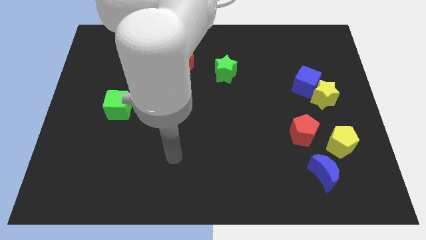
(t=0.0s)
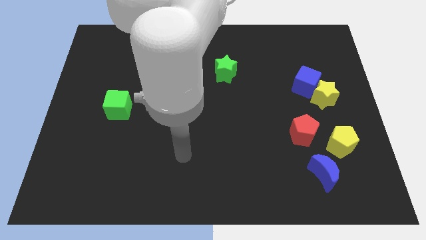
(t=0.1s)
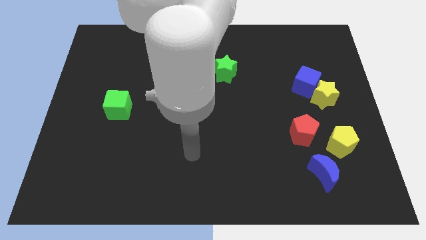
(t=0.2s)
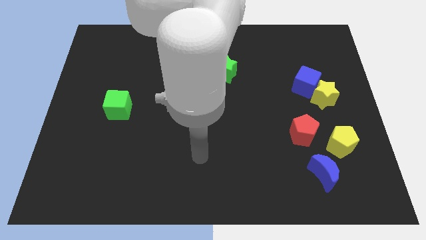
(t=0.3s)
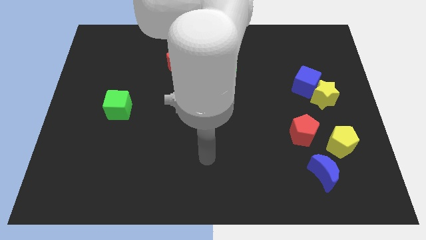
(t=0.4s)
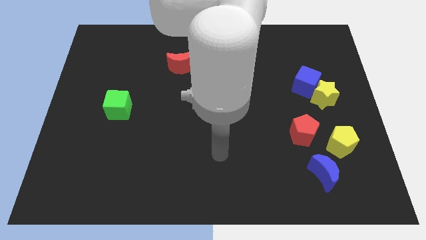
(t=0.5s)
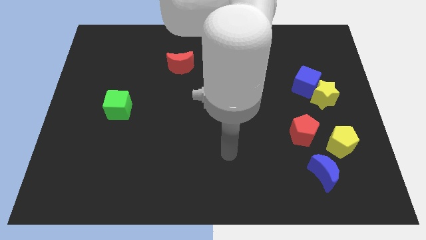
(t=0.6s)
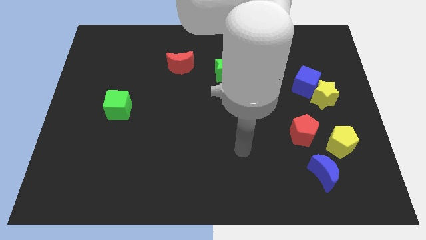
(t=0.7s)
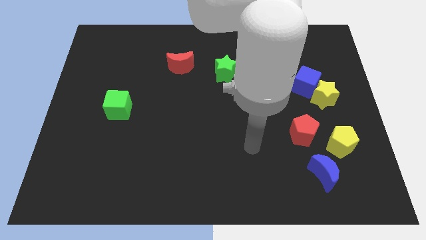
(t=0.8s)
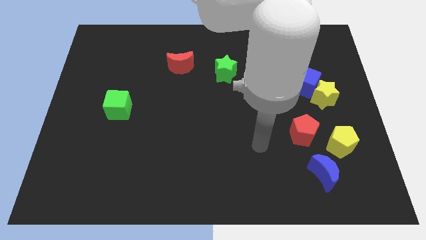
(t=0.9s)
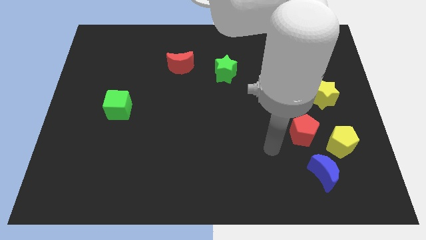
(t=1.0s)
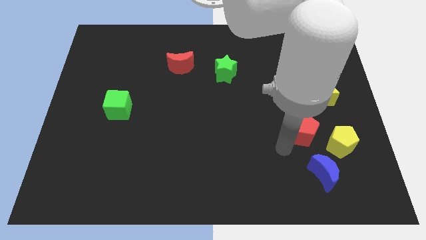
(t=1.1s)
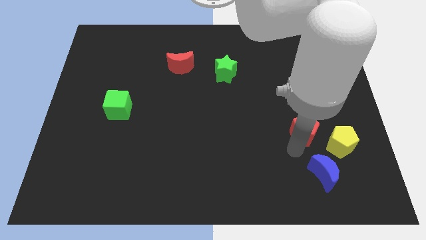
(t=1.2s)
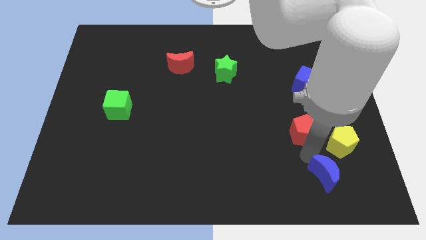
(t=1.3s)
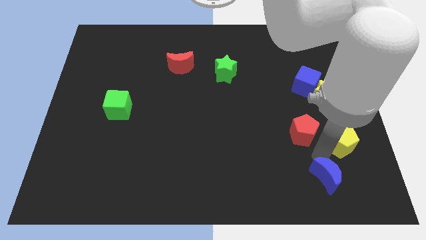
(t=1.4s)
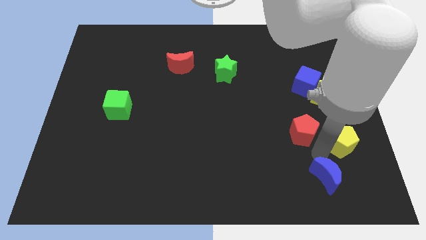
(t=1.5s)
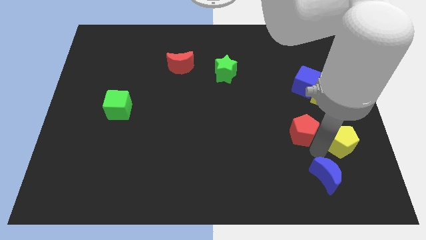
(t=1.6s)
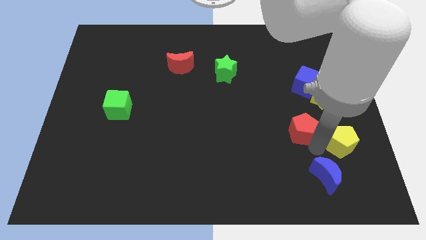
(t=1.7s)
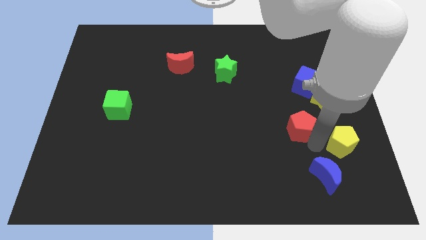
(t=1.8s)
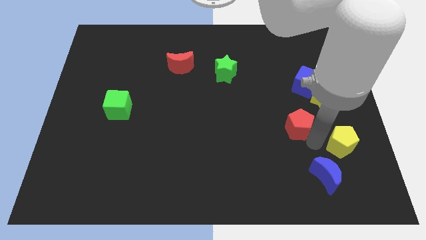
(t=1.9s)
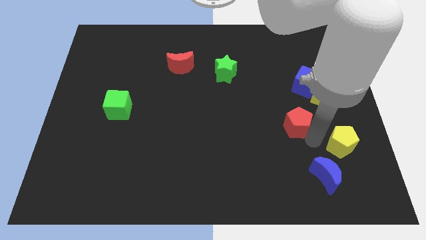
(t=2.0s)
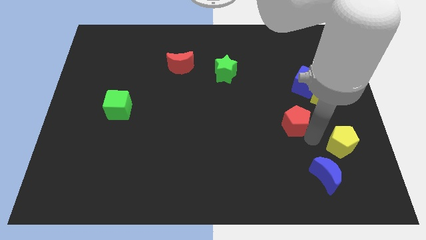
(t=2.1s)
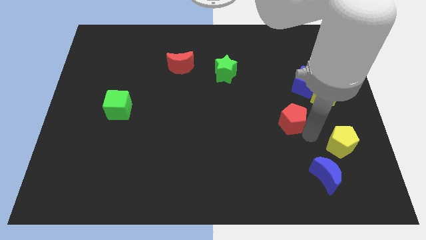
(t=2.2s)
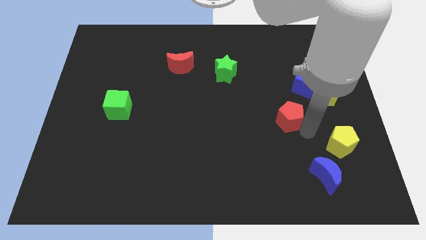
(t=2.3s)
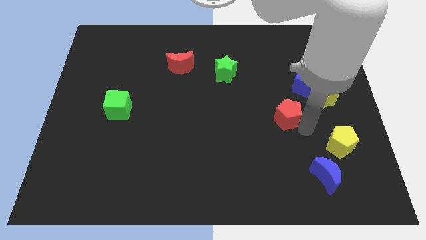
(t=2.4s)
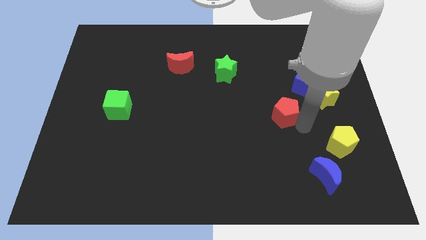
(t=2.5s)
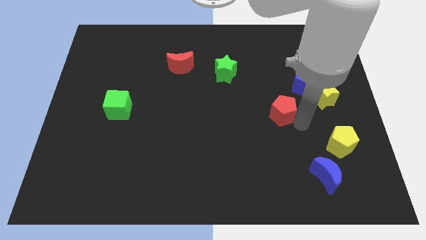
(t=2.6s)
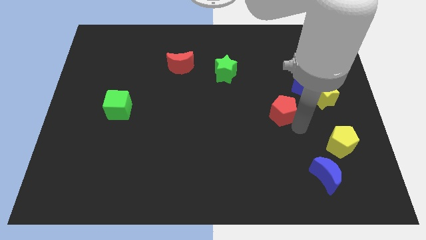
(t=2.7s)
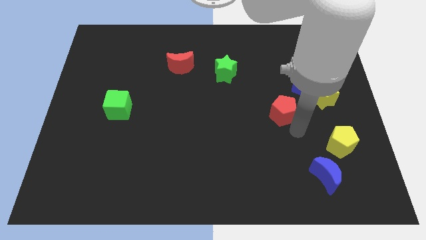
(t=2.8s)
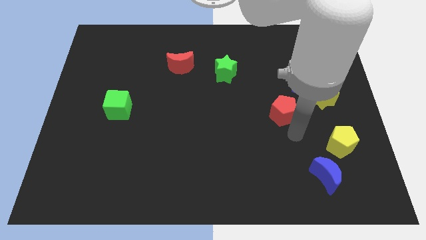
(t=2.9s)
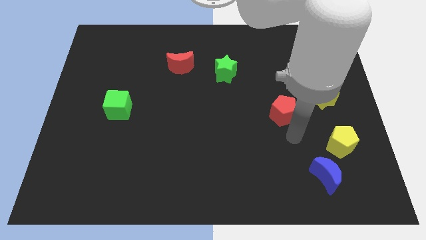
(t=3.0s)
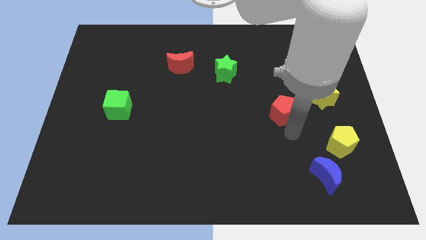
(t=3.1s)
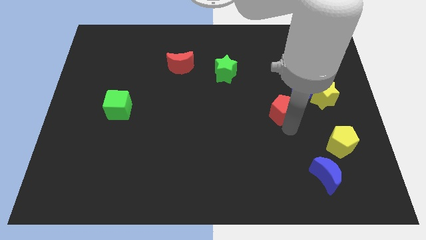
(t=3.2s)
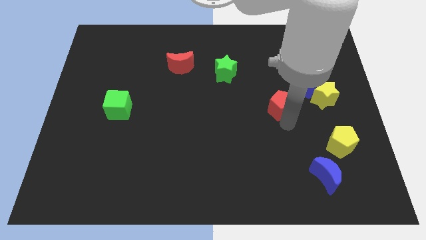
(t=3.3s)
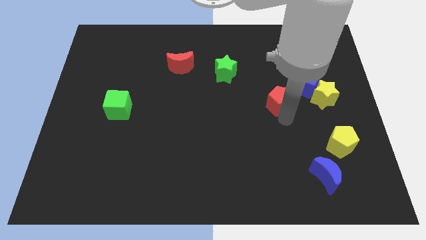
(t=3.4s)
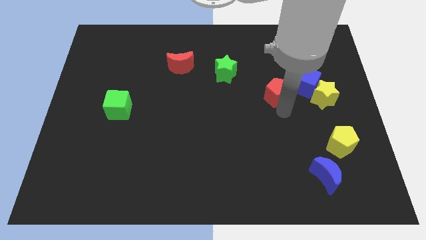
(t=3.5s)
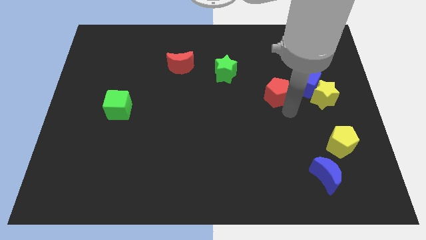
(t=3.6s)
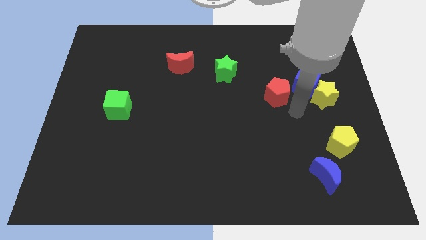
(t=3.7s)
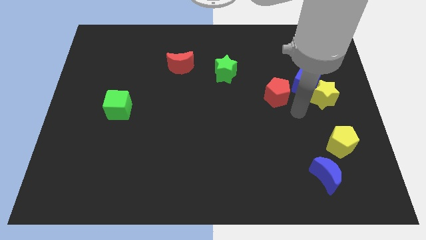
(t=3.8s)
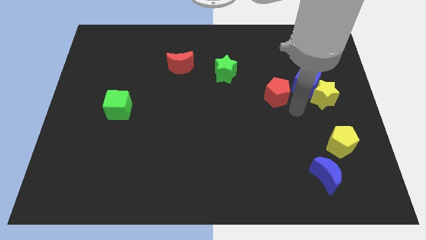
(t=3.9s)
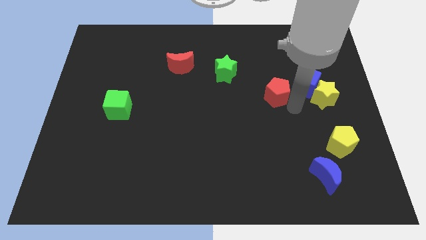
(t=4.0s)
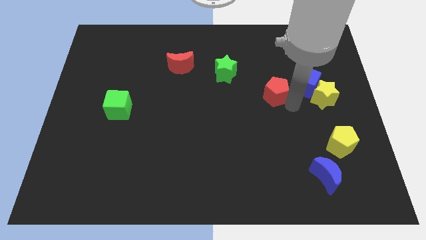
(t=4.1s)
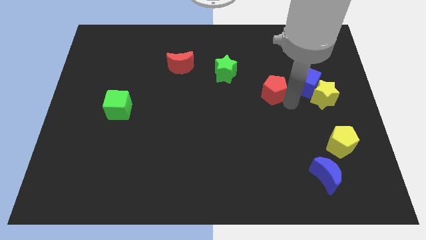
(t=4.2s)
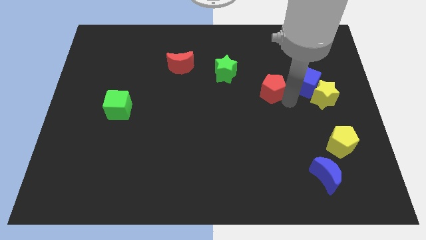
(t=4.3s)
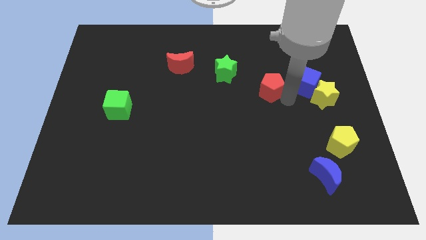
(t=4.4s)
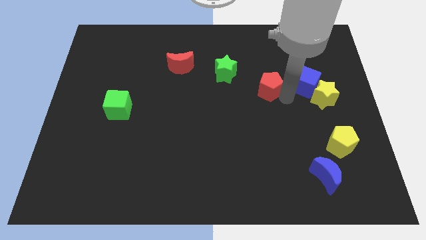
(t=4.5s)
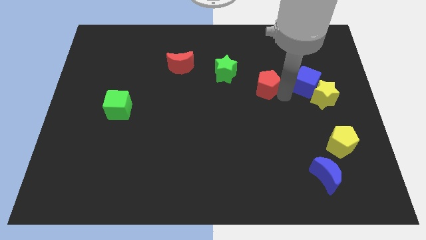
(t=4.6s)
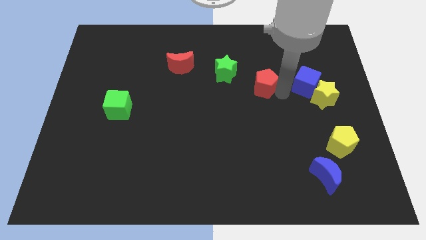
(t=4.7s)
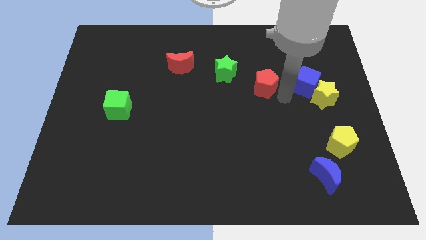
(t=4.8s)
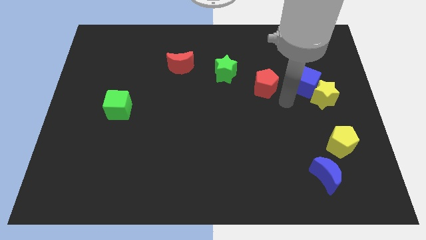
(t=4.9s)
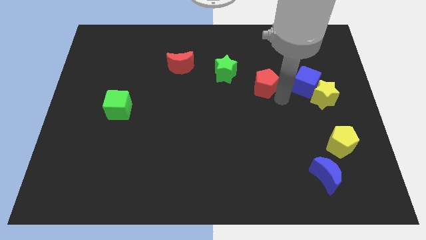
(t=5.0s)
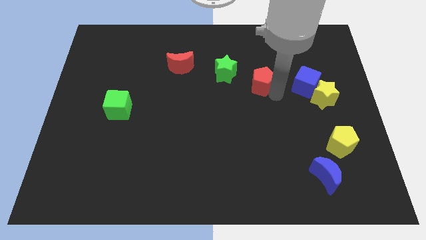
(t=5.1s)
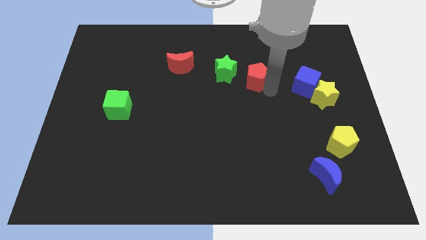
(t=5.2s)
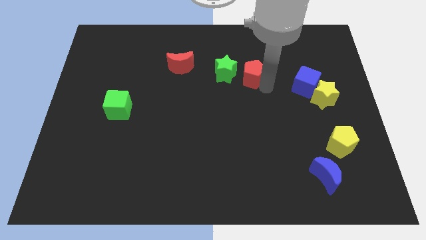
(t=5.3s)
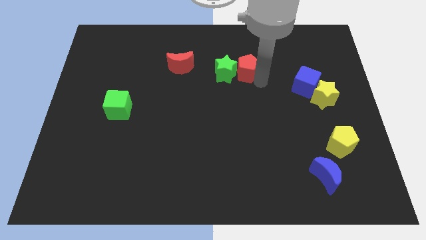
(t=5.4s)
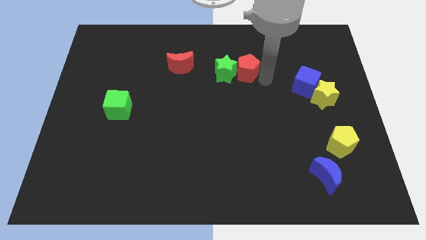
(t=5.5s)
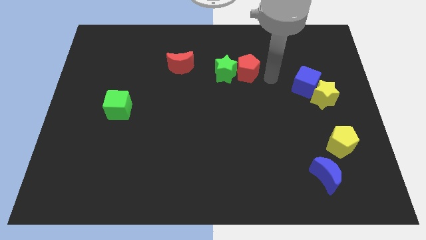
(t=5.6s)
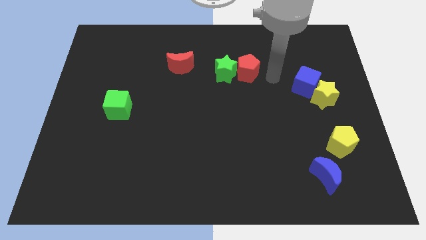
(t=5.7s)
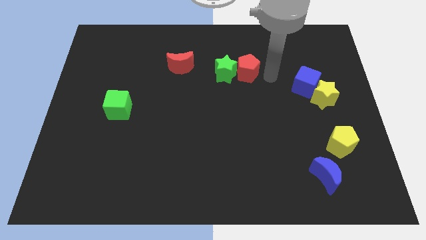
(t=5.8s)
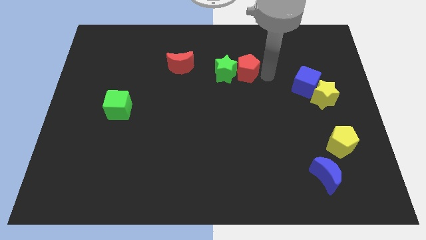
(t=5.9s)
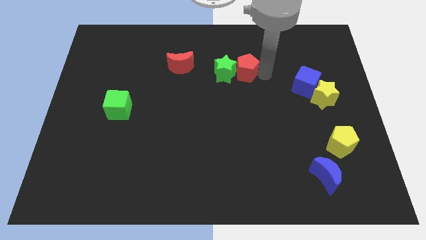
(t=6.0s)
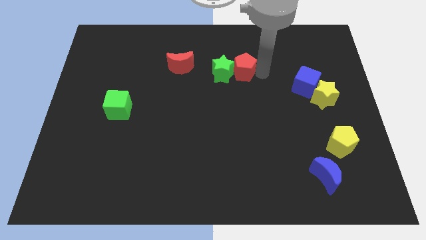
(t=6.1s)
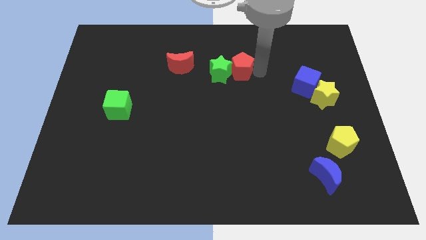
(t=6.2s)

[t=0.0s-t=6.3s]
push the red pentagon to the right of the red moon

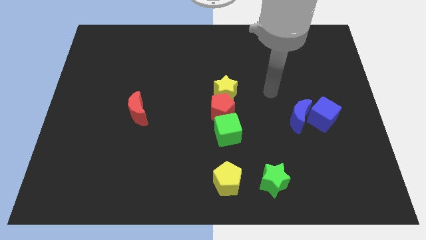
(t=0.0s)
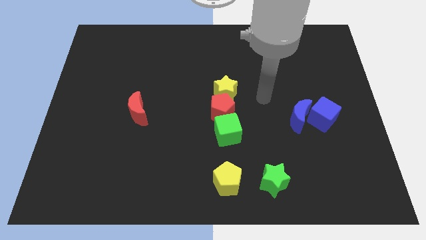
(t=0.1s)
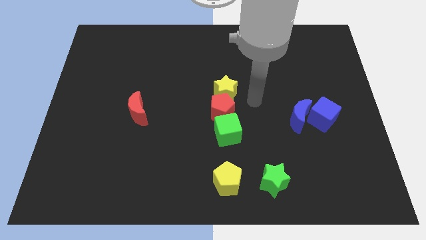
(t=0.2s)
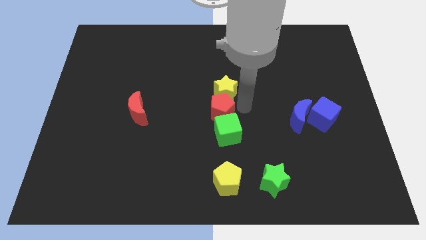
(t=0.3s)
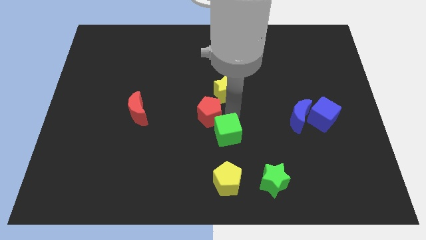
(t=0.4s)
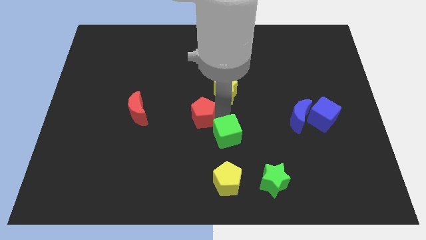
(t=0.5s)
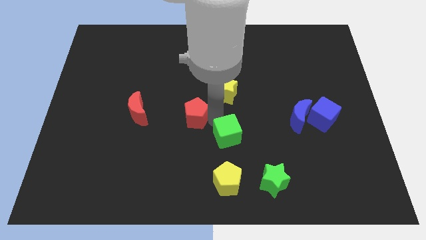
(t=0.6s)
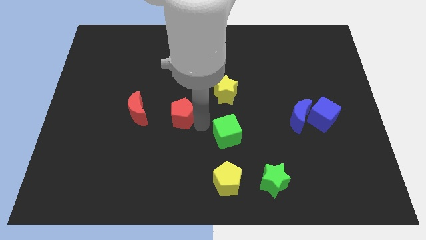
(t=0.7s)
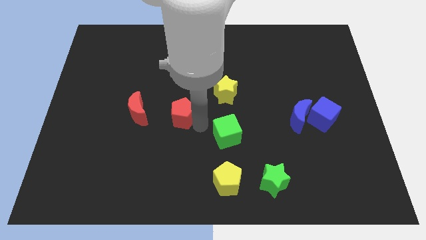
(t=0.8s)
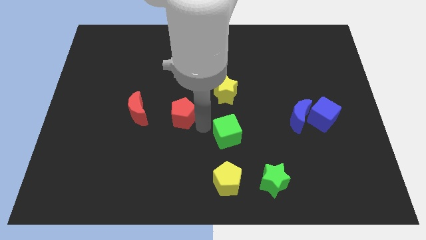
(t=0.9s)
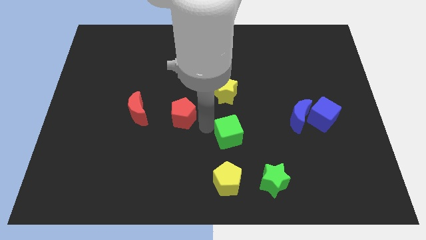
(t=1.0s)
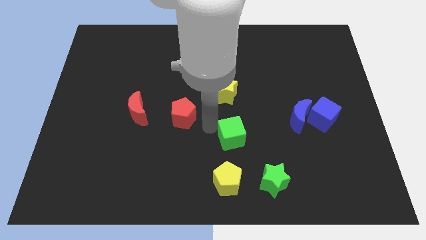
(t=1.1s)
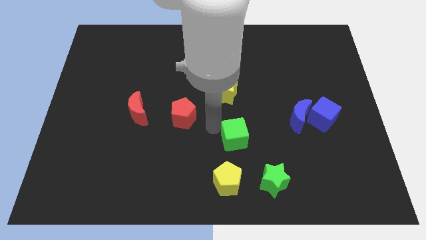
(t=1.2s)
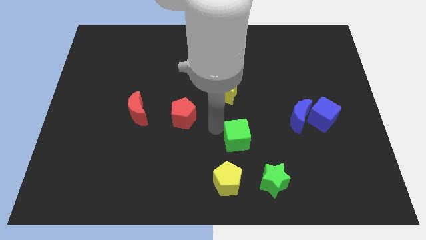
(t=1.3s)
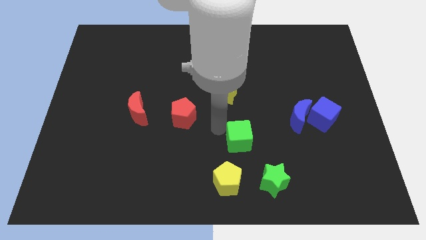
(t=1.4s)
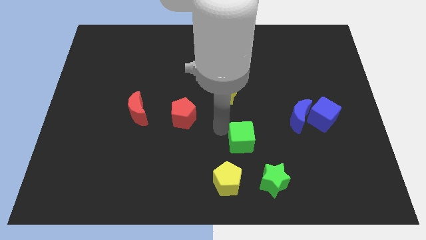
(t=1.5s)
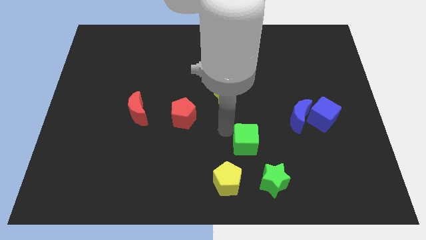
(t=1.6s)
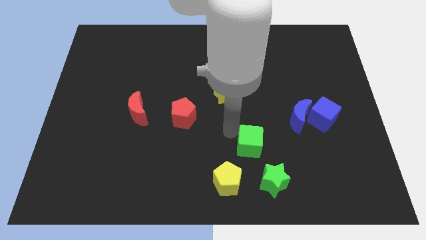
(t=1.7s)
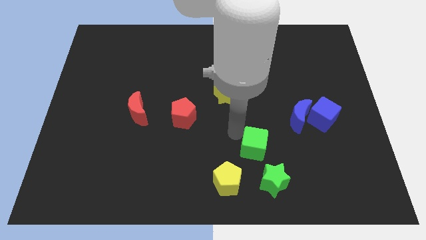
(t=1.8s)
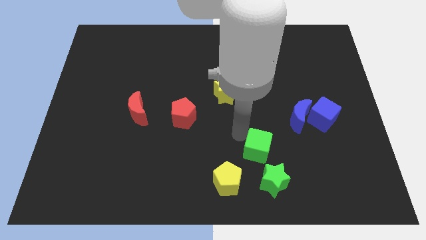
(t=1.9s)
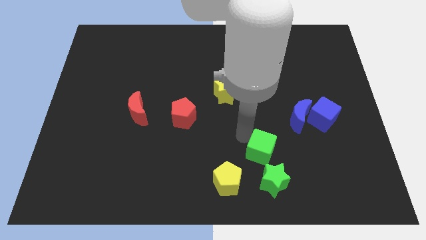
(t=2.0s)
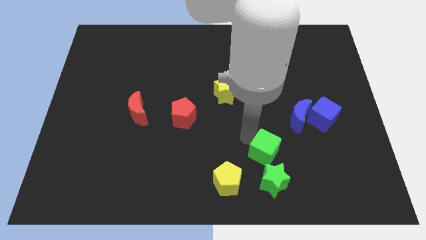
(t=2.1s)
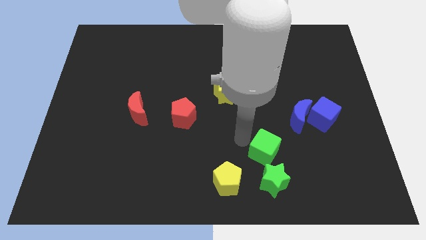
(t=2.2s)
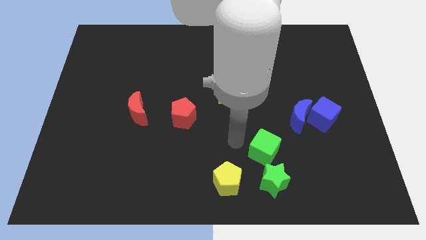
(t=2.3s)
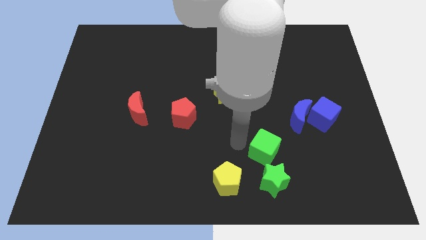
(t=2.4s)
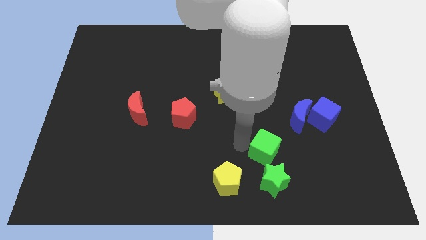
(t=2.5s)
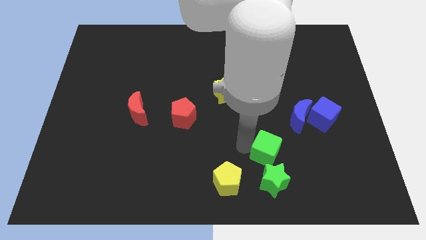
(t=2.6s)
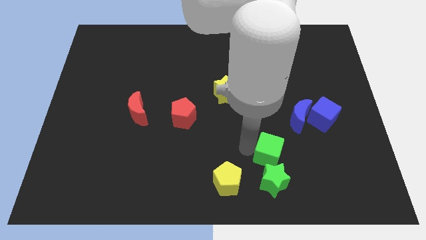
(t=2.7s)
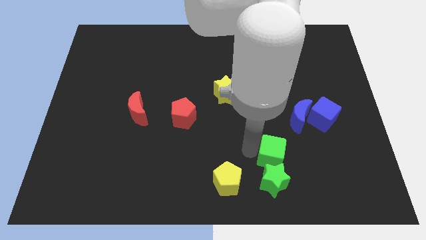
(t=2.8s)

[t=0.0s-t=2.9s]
slide the green cube diagonally up and to the right of the green star
